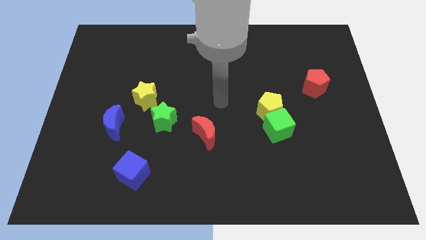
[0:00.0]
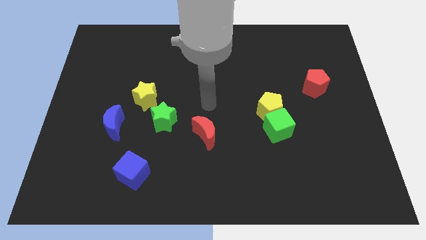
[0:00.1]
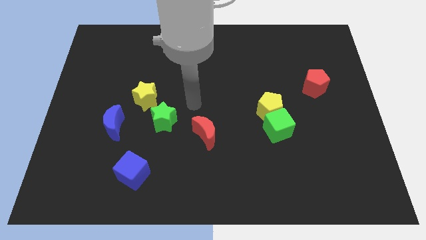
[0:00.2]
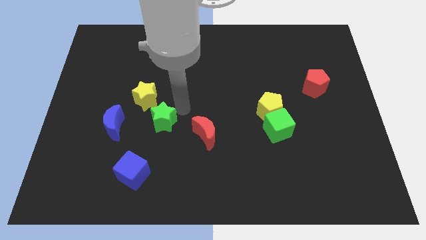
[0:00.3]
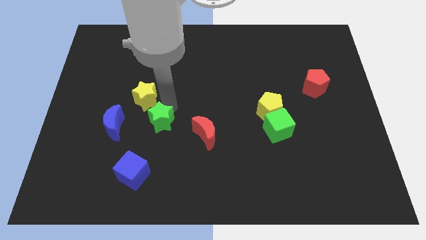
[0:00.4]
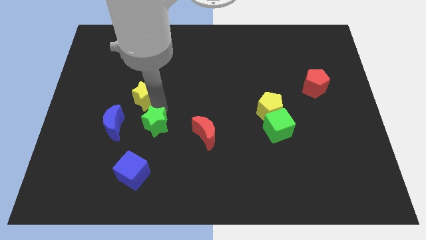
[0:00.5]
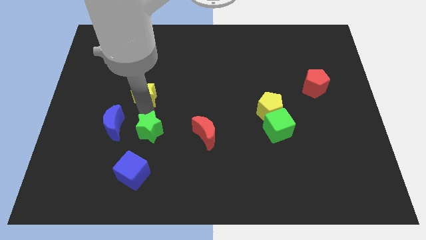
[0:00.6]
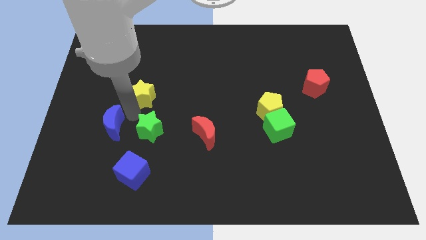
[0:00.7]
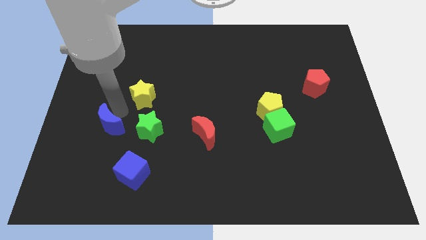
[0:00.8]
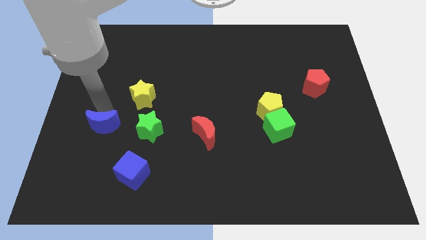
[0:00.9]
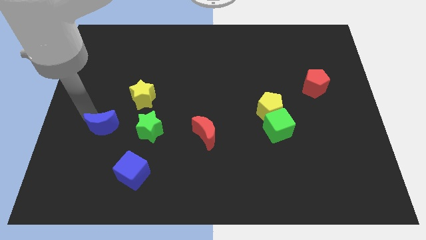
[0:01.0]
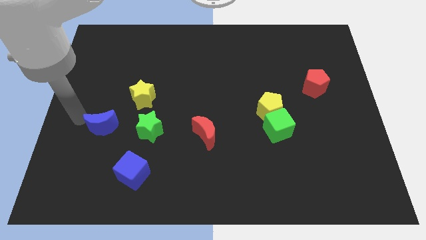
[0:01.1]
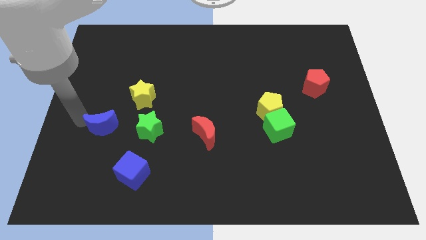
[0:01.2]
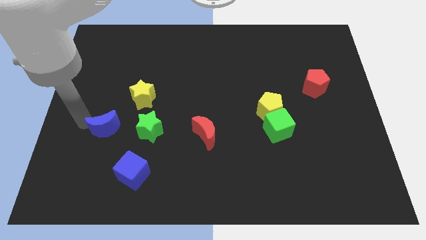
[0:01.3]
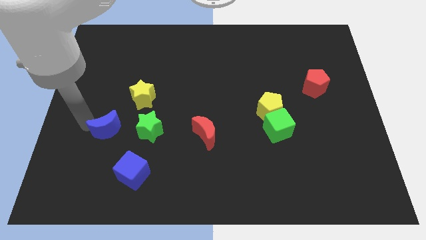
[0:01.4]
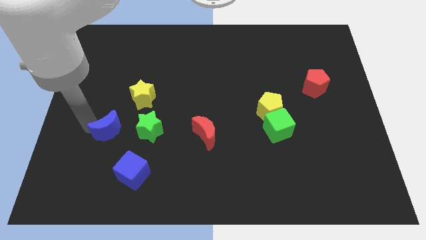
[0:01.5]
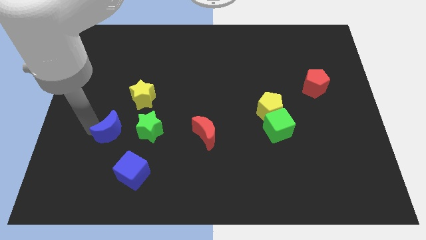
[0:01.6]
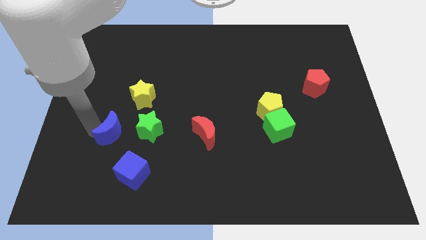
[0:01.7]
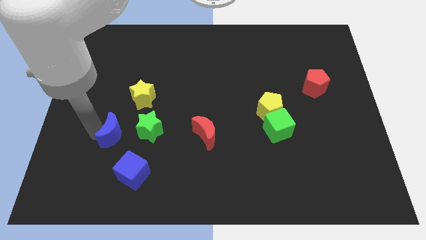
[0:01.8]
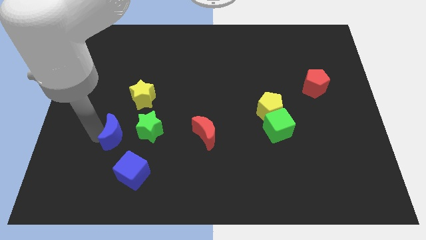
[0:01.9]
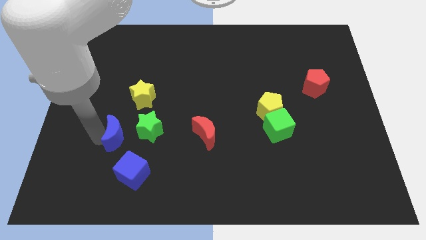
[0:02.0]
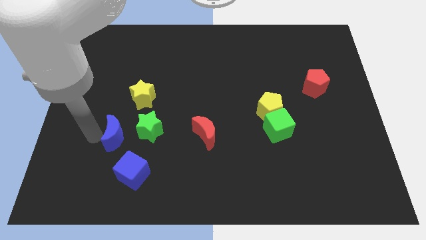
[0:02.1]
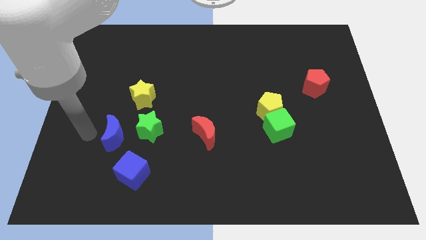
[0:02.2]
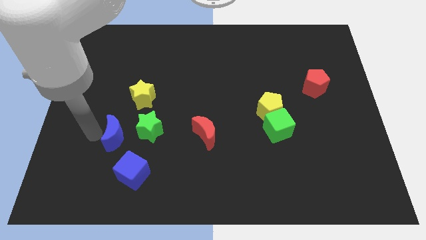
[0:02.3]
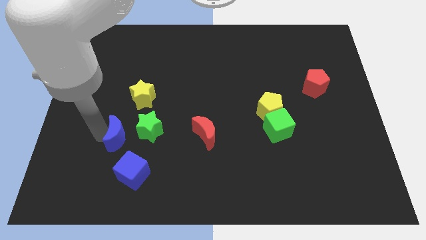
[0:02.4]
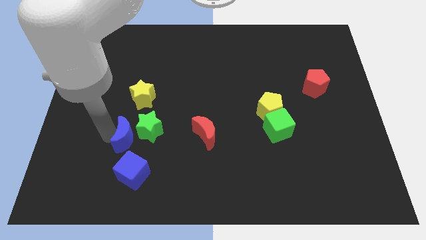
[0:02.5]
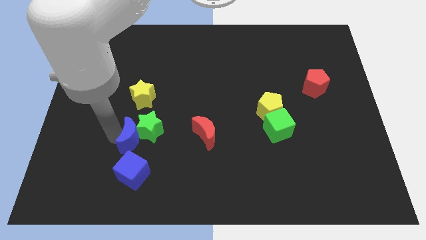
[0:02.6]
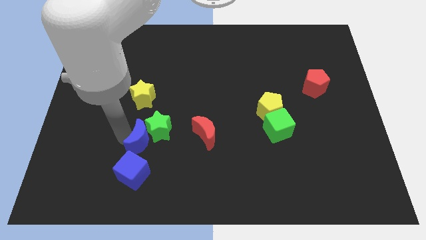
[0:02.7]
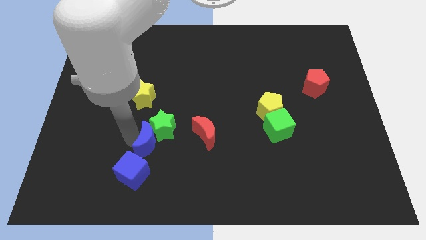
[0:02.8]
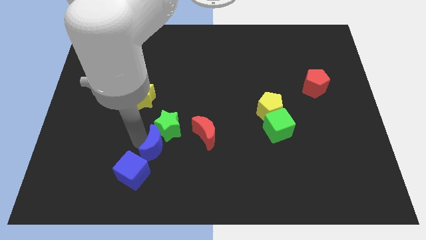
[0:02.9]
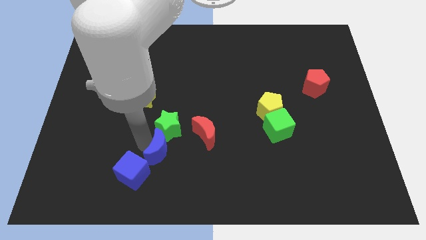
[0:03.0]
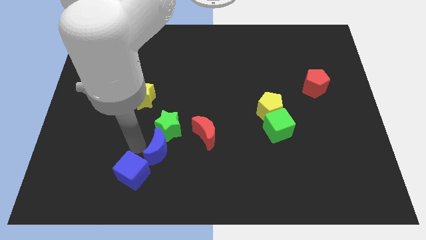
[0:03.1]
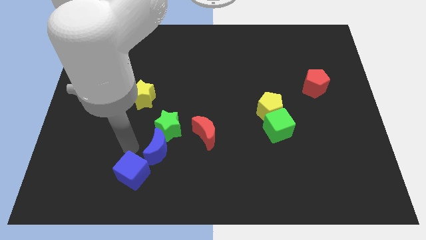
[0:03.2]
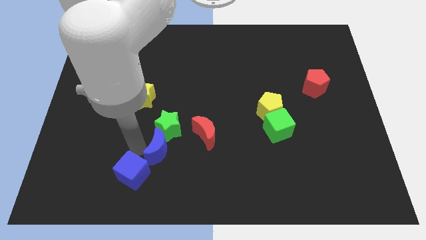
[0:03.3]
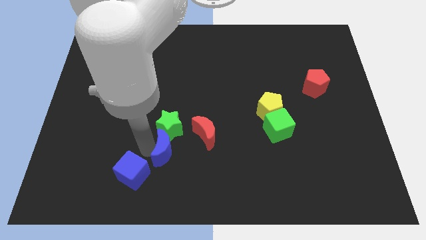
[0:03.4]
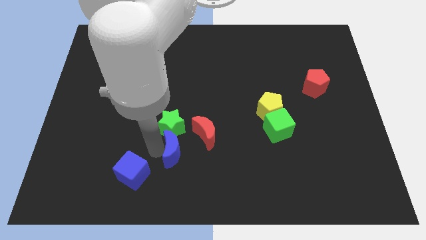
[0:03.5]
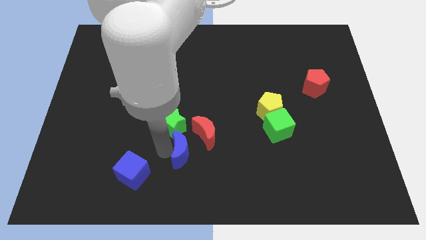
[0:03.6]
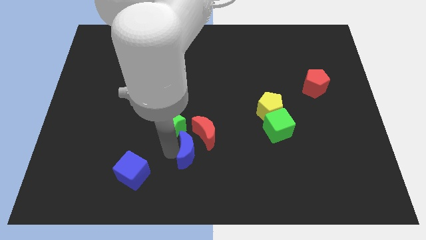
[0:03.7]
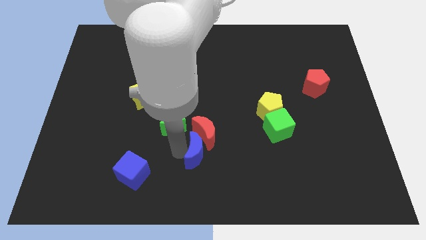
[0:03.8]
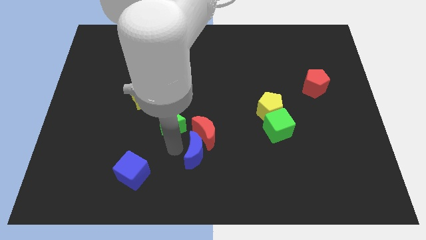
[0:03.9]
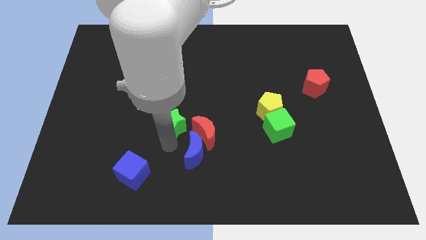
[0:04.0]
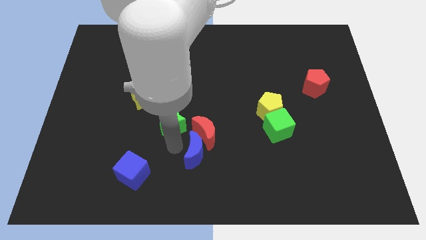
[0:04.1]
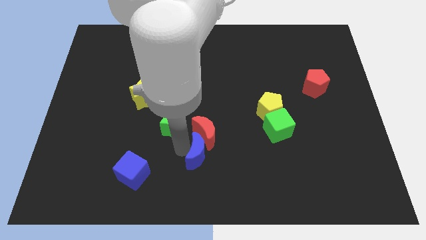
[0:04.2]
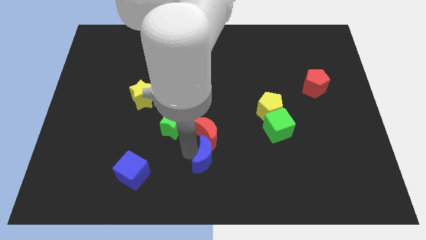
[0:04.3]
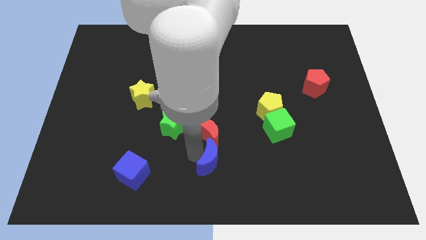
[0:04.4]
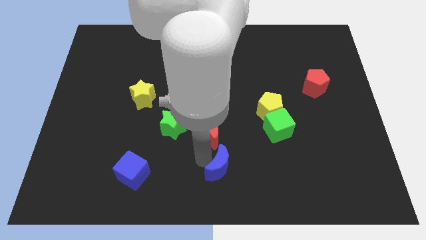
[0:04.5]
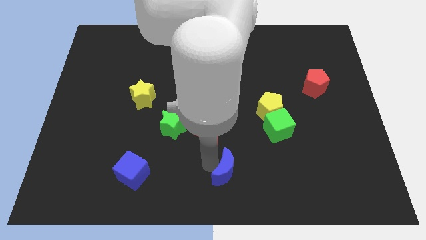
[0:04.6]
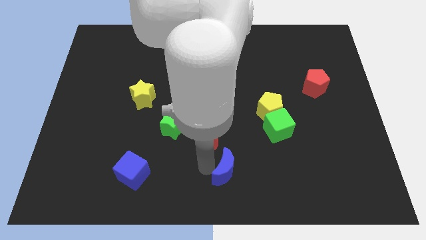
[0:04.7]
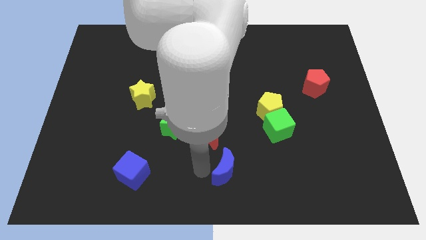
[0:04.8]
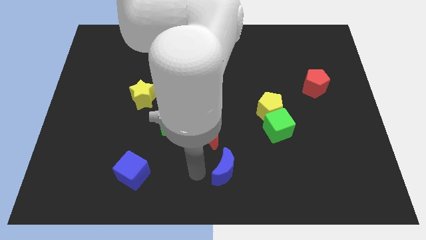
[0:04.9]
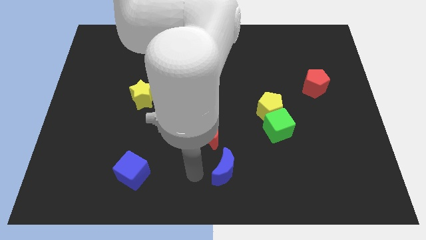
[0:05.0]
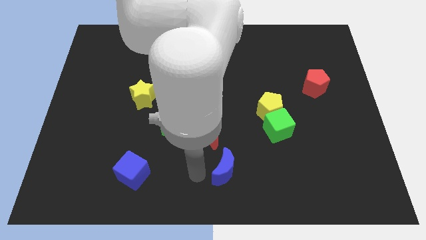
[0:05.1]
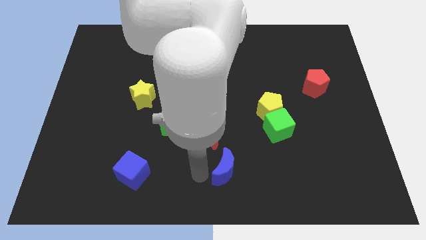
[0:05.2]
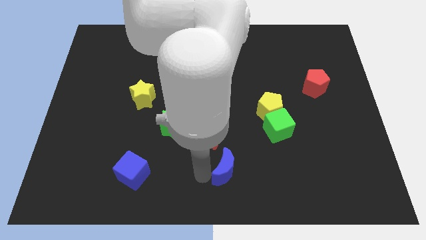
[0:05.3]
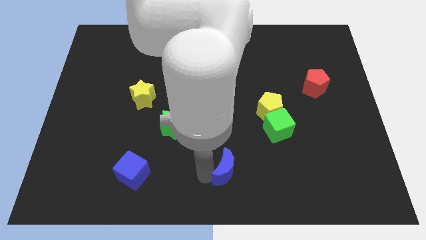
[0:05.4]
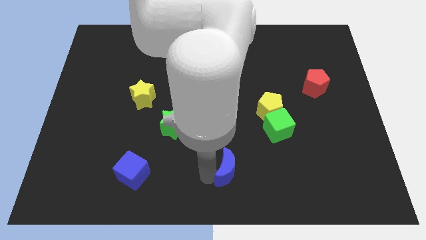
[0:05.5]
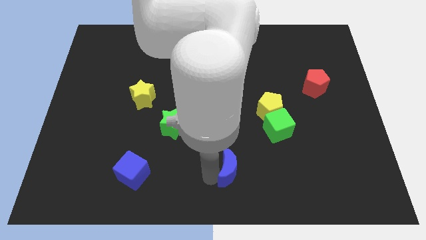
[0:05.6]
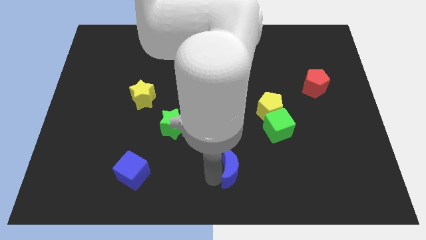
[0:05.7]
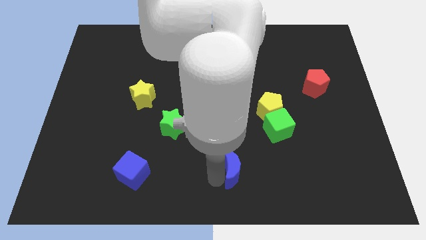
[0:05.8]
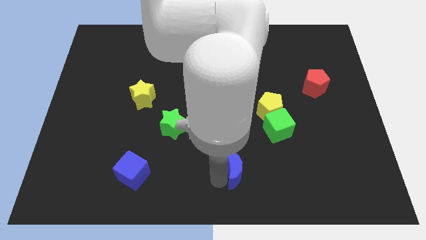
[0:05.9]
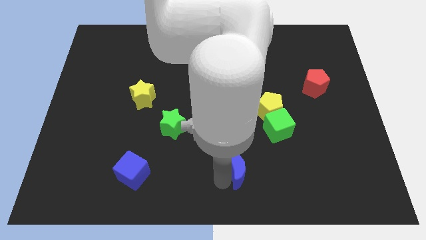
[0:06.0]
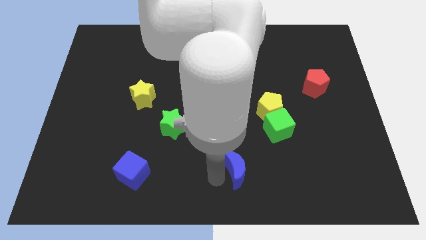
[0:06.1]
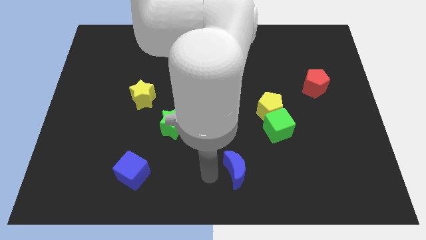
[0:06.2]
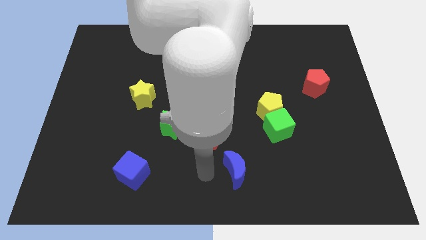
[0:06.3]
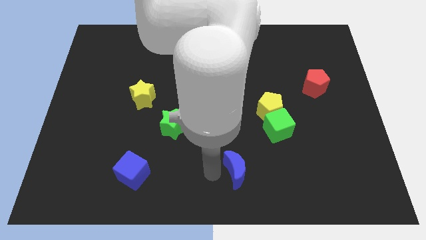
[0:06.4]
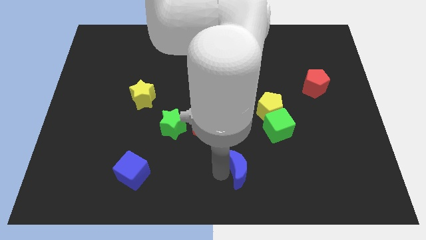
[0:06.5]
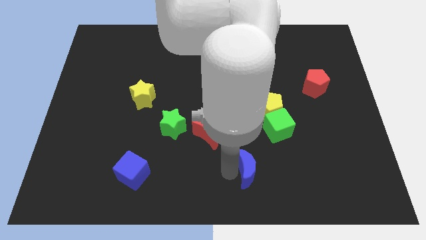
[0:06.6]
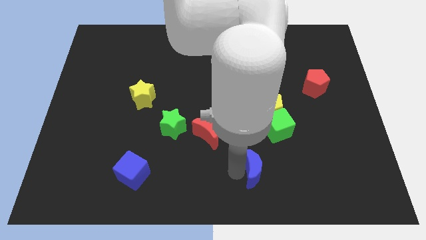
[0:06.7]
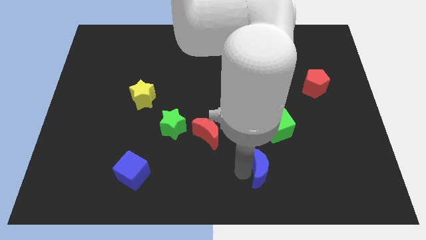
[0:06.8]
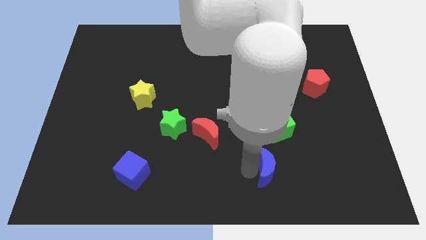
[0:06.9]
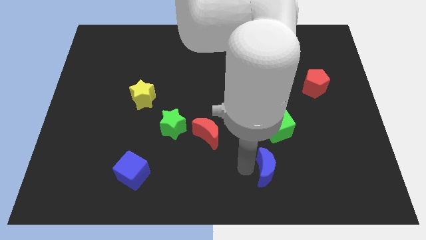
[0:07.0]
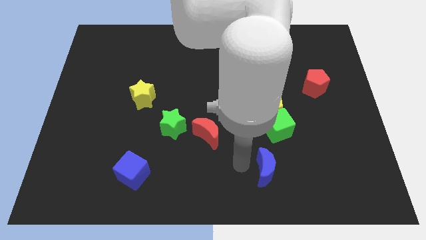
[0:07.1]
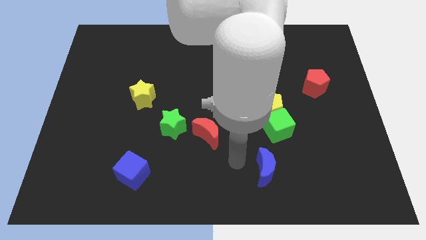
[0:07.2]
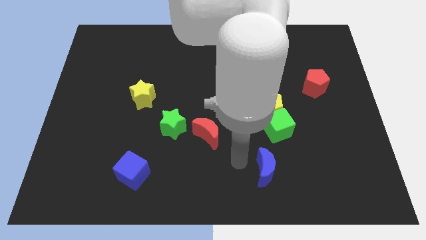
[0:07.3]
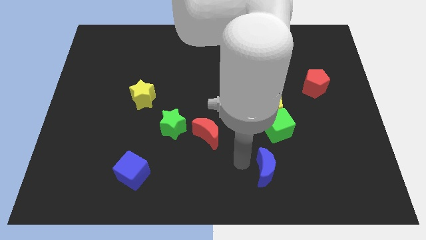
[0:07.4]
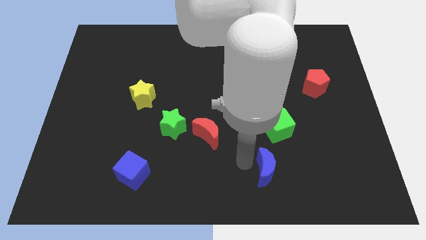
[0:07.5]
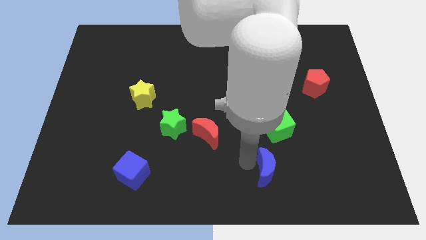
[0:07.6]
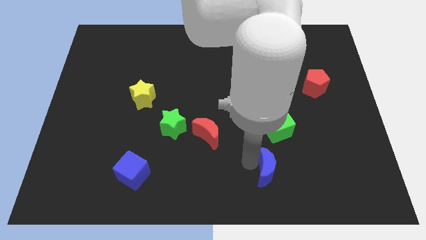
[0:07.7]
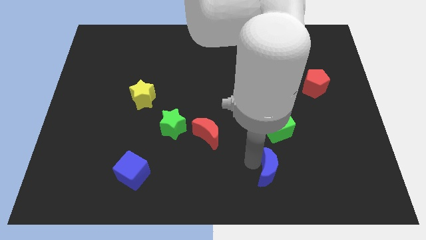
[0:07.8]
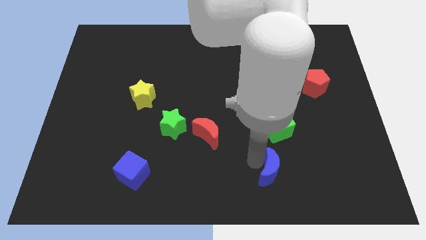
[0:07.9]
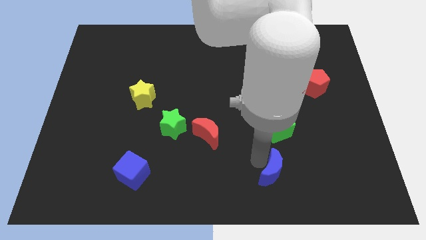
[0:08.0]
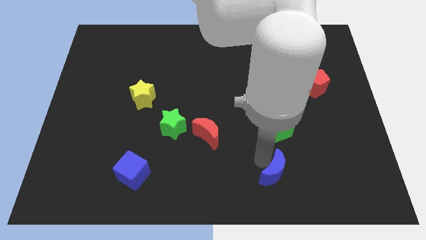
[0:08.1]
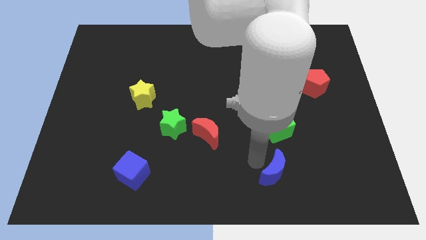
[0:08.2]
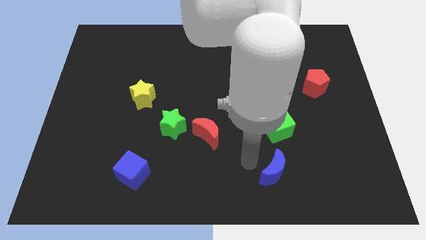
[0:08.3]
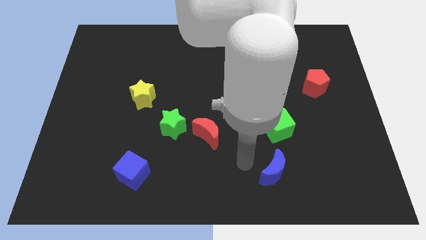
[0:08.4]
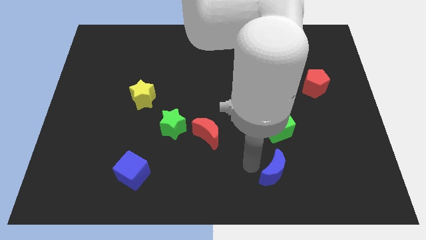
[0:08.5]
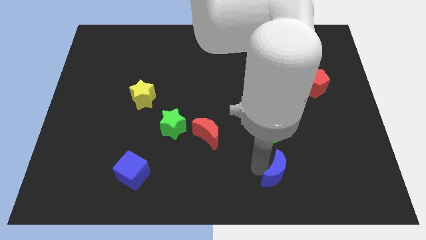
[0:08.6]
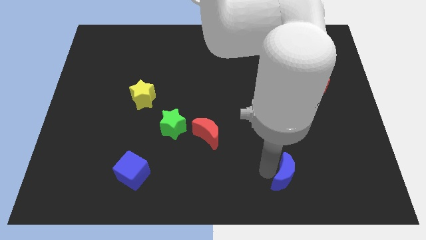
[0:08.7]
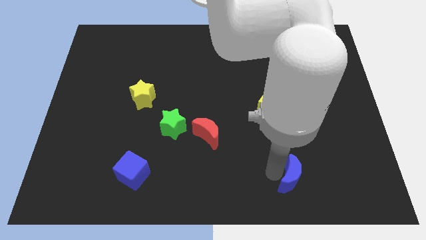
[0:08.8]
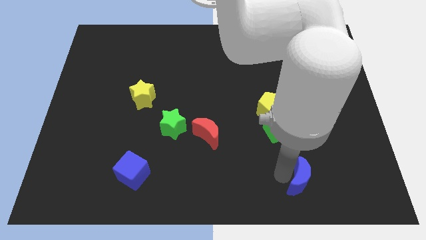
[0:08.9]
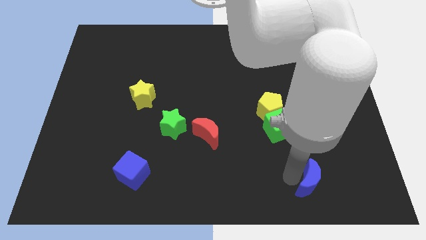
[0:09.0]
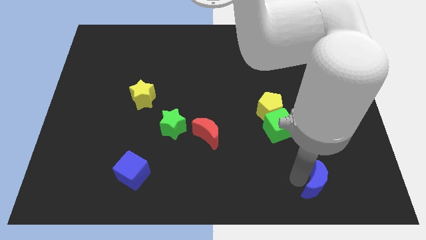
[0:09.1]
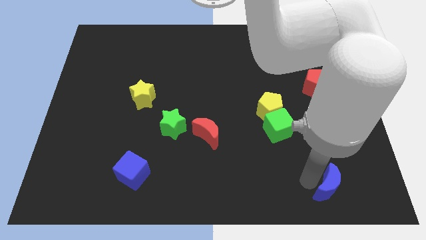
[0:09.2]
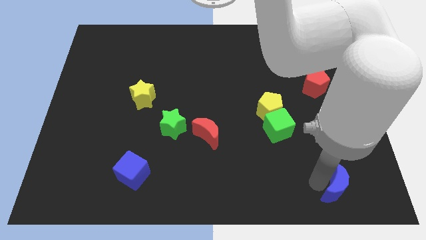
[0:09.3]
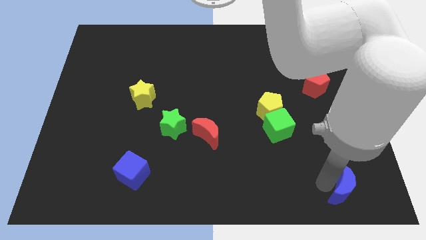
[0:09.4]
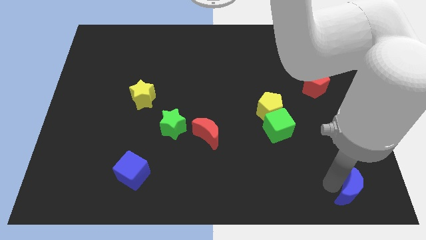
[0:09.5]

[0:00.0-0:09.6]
put the blue moon to the bottom right corner
